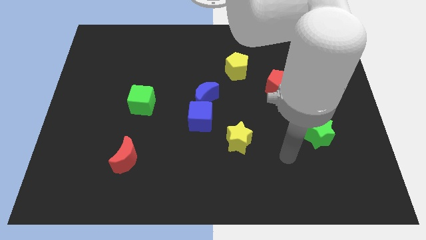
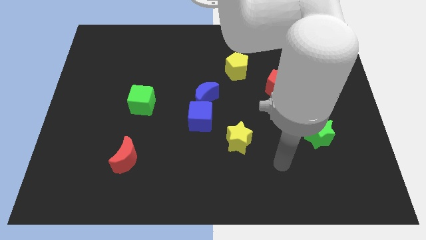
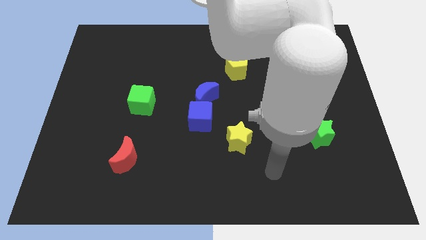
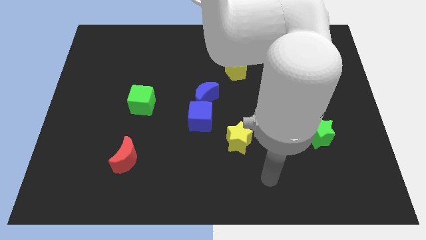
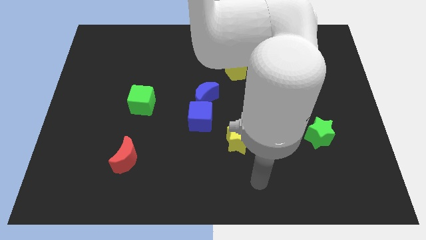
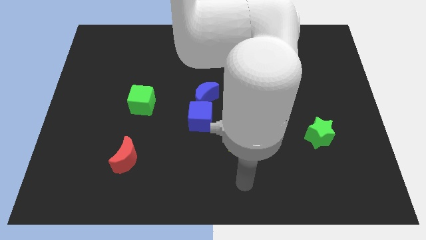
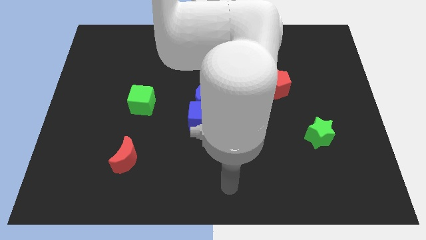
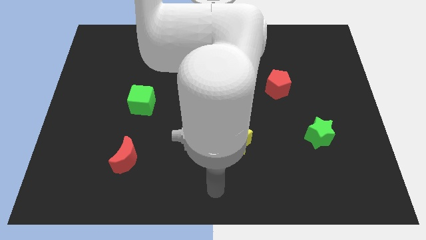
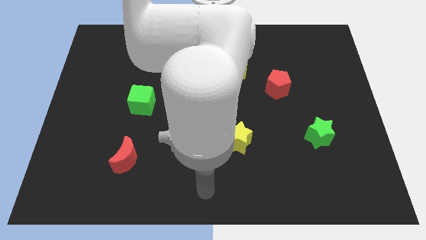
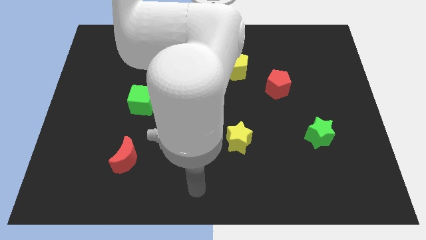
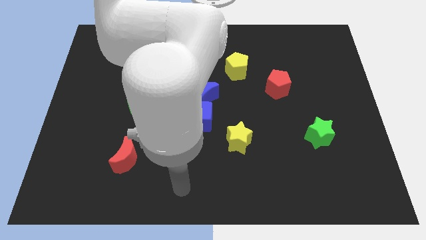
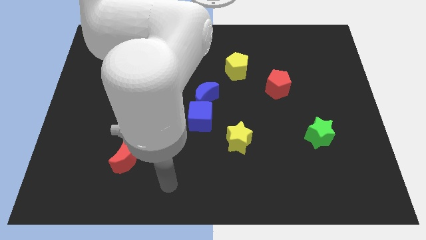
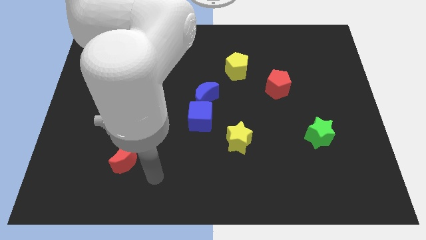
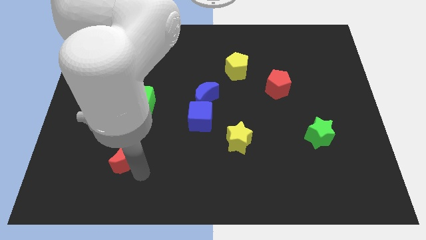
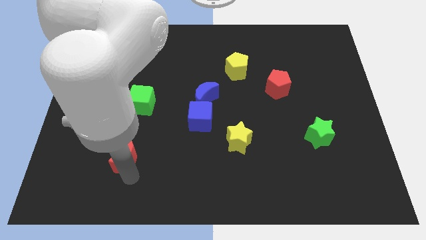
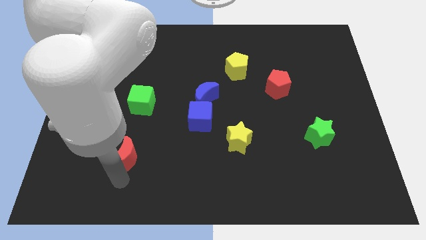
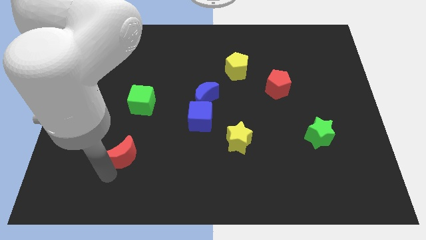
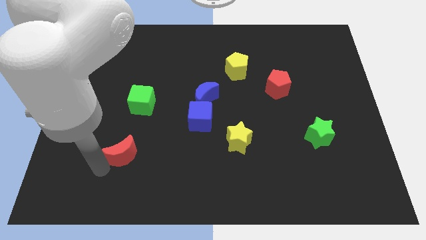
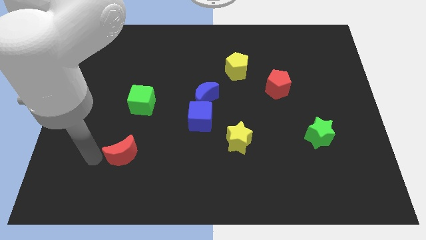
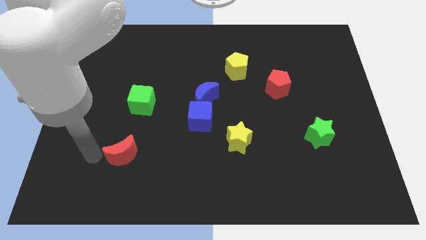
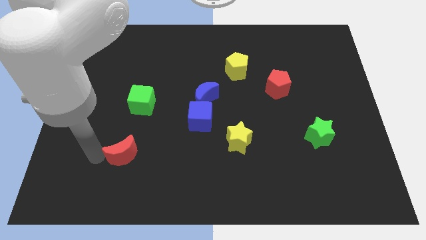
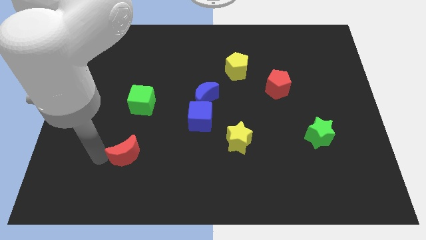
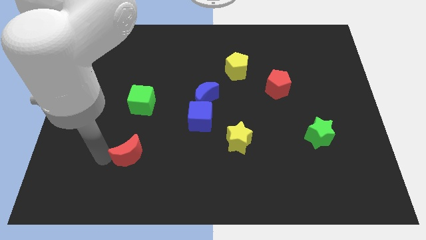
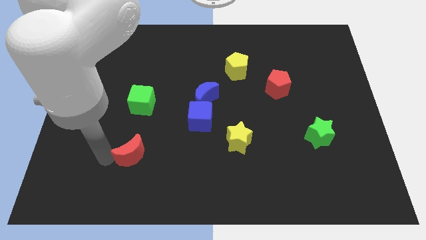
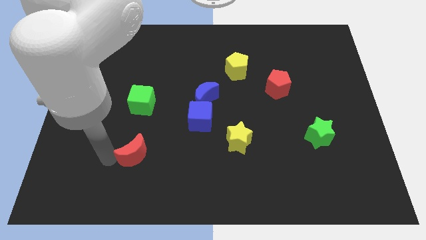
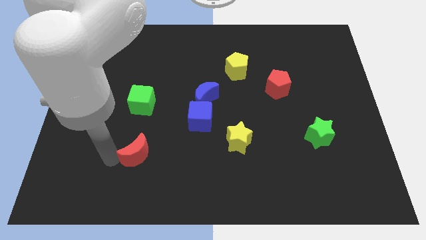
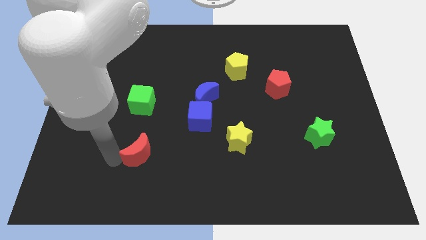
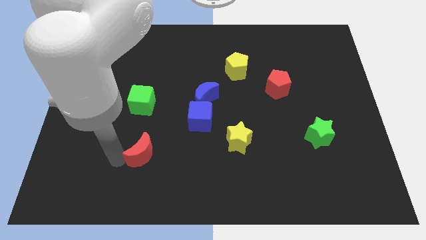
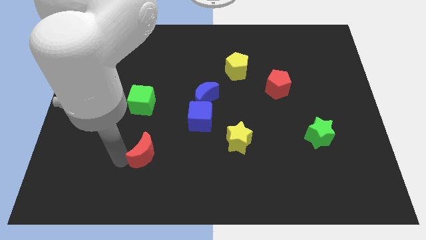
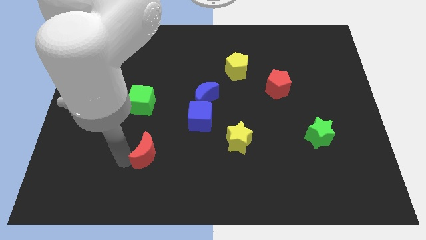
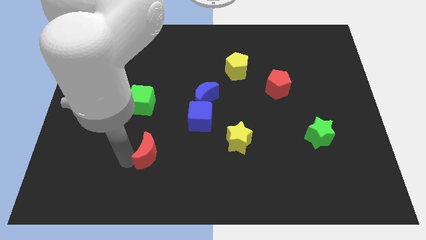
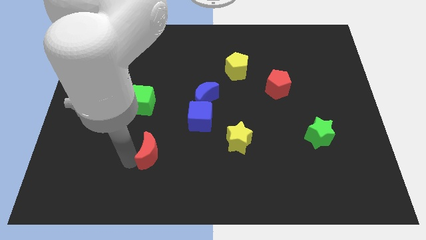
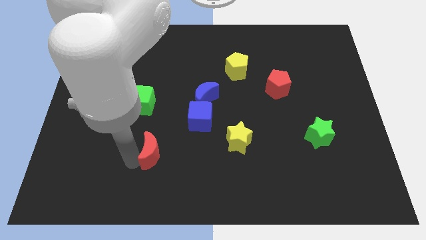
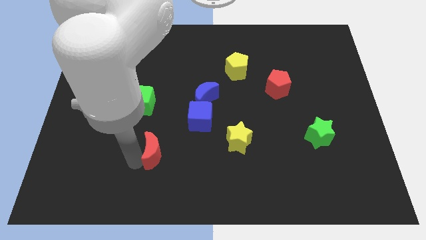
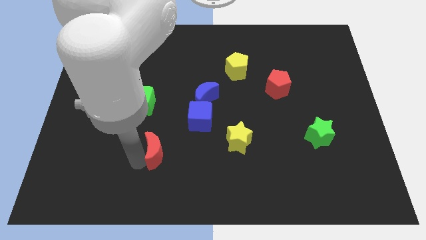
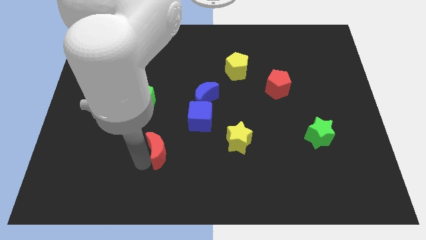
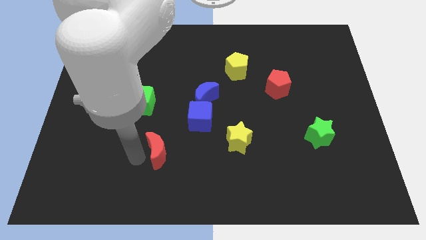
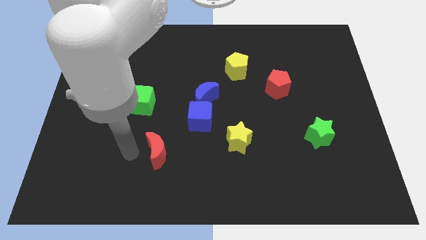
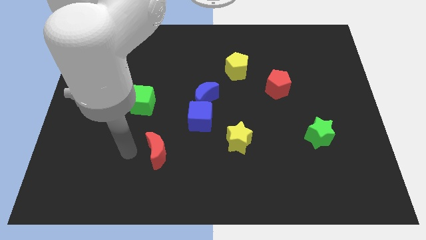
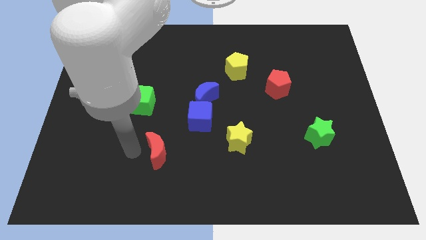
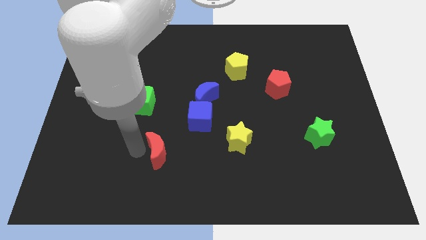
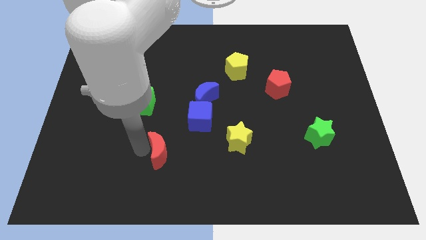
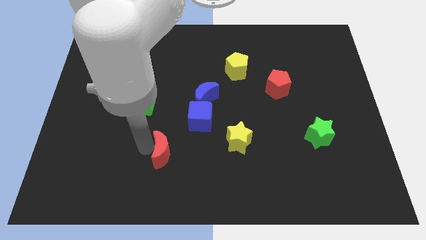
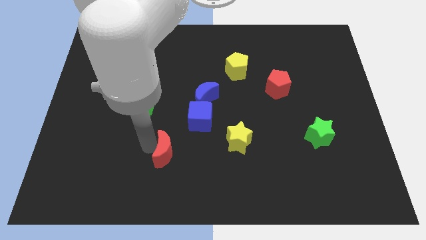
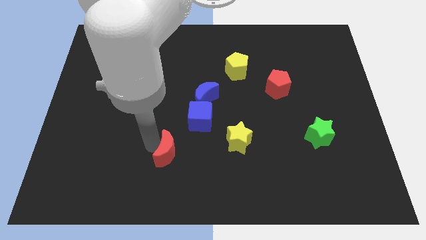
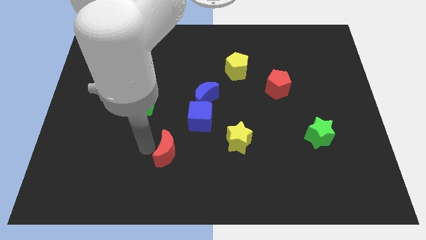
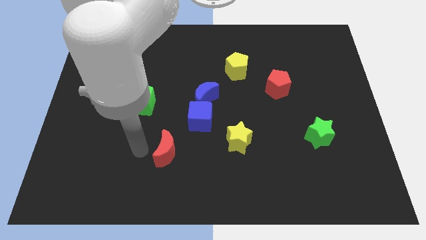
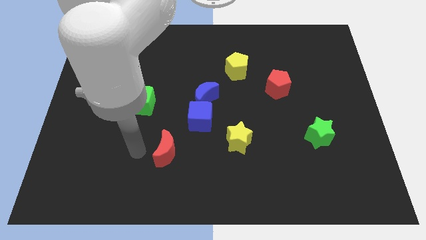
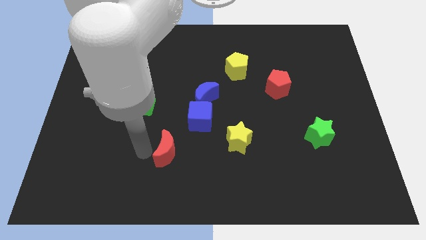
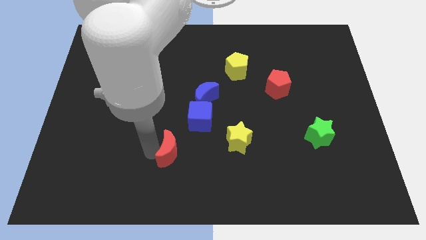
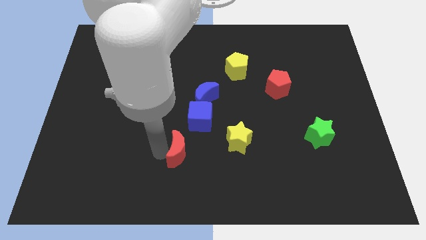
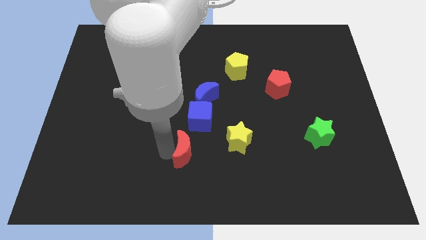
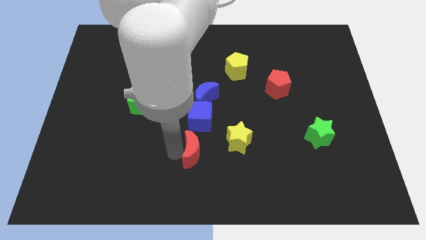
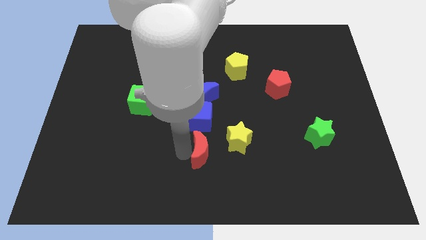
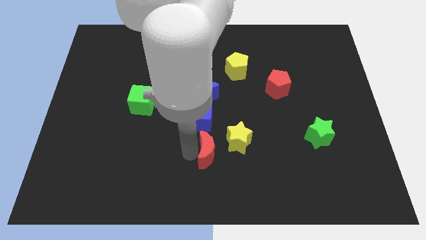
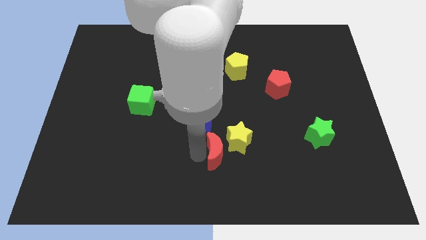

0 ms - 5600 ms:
slide the red moon to the yellow star

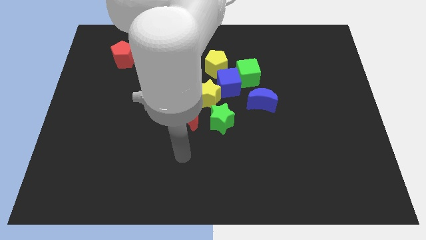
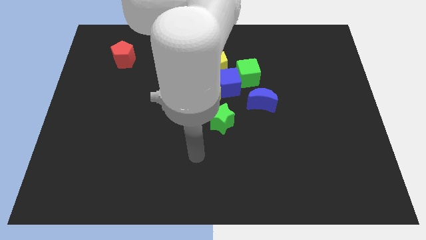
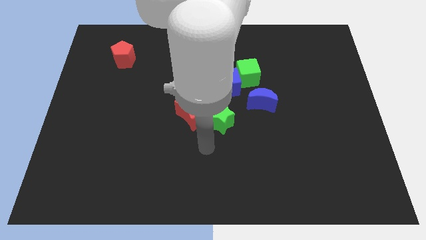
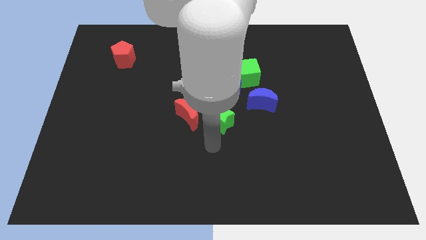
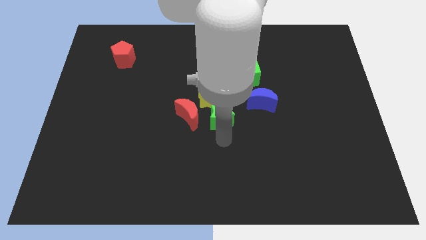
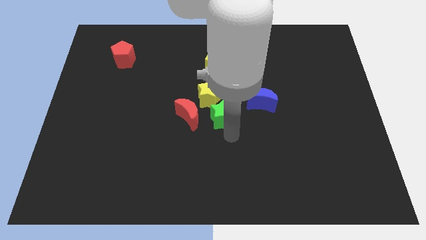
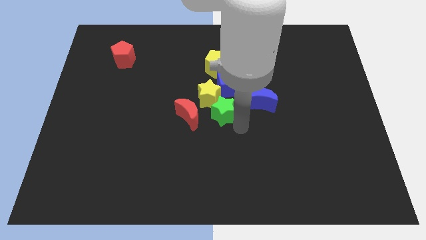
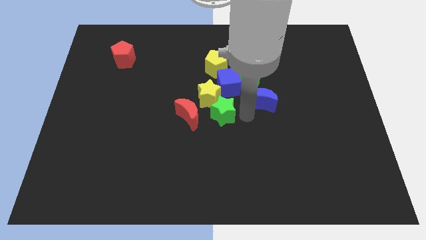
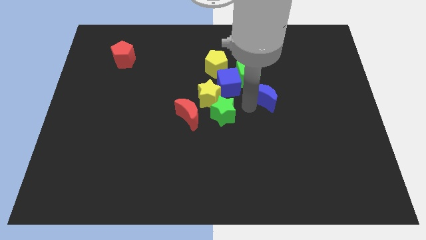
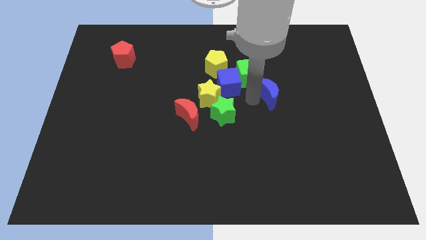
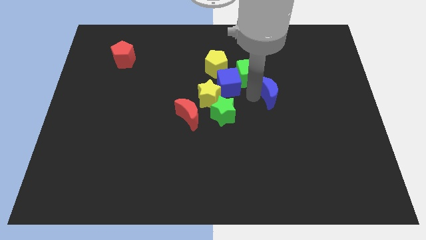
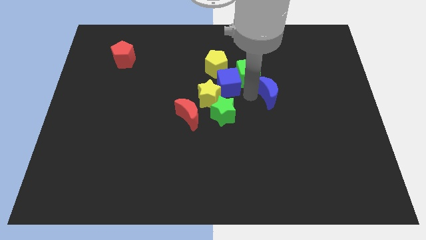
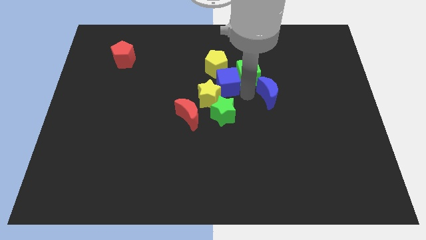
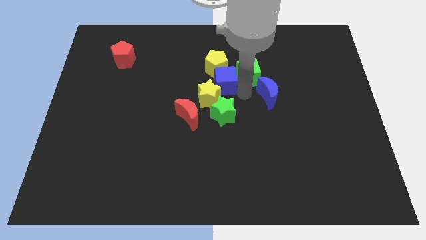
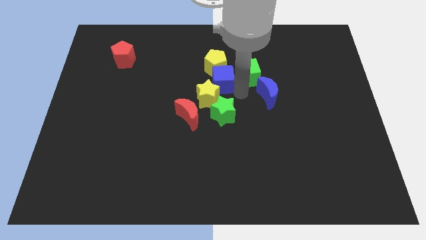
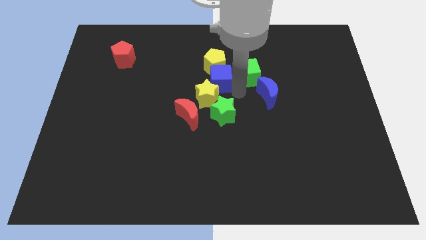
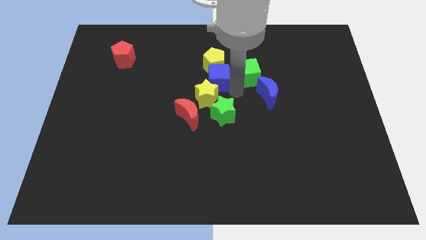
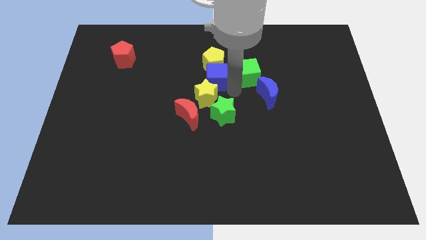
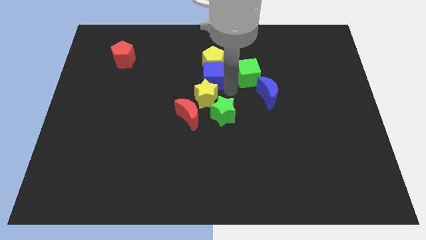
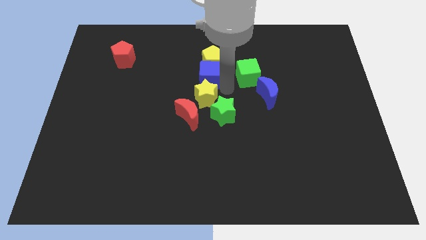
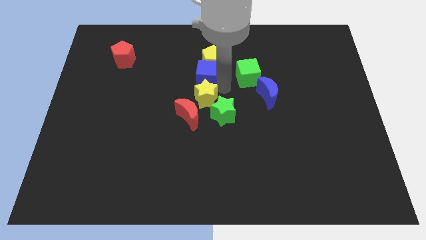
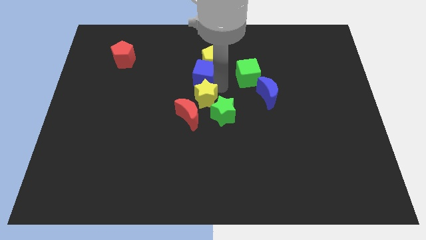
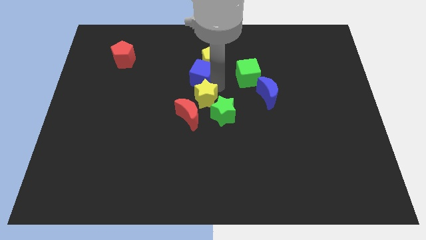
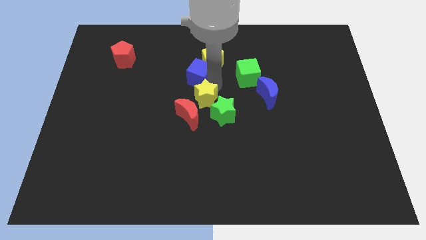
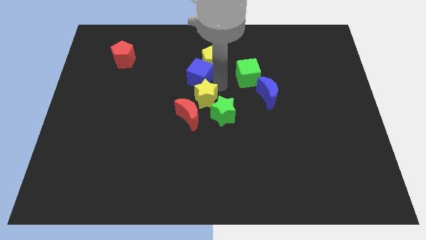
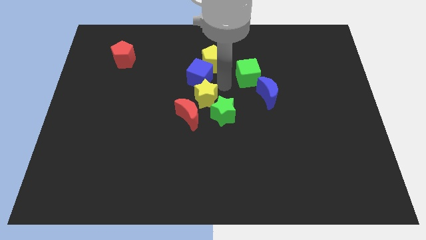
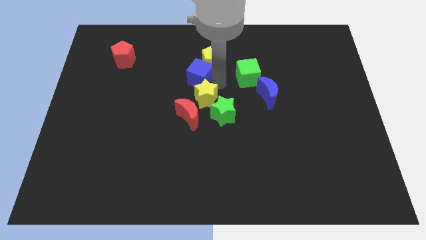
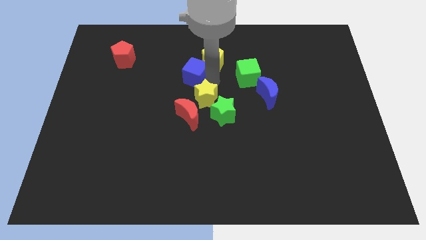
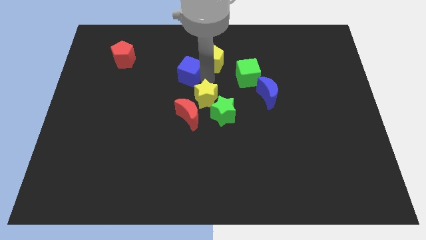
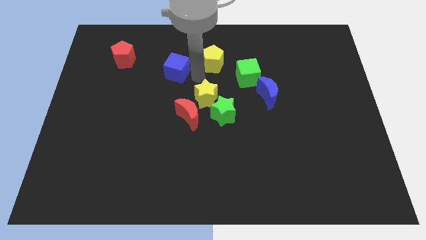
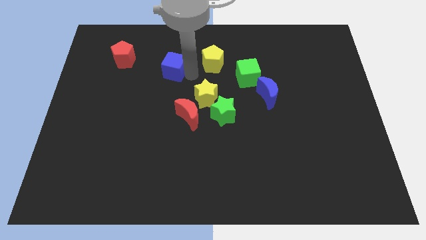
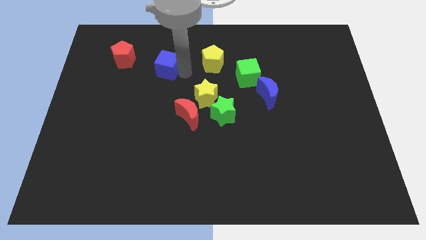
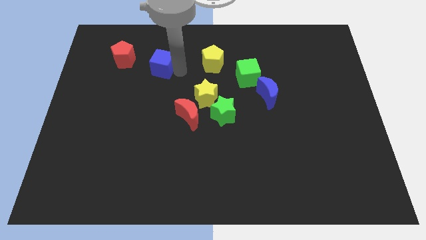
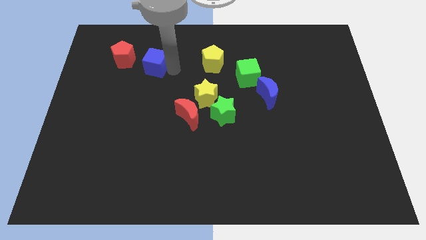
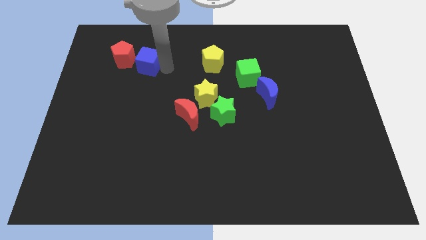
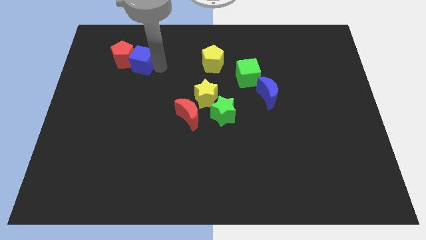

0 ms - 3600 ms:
move the blue cube towards the red pentagon
